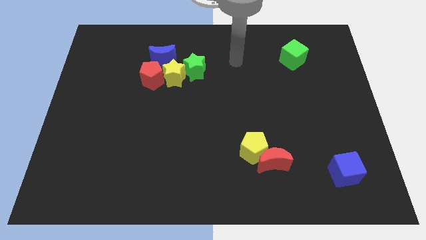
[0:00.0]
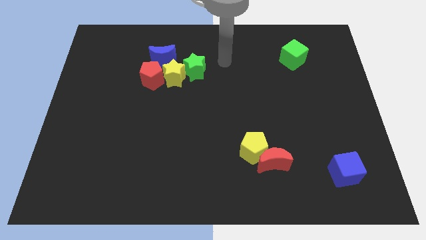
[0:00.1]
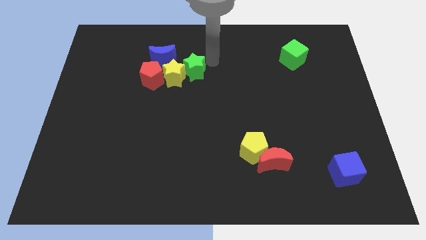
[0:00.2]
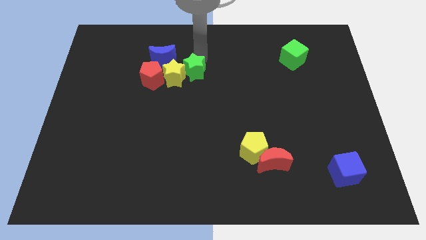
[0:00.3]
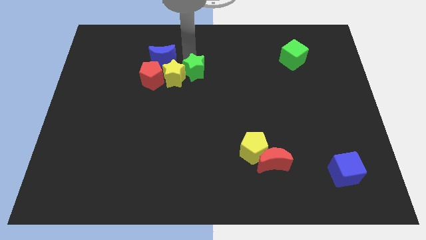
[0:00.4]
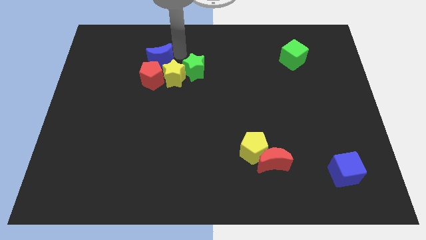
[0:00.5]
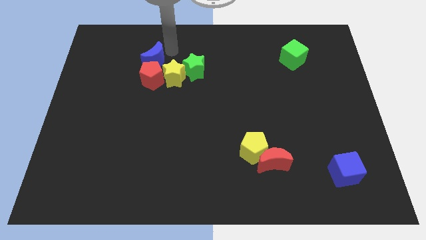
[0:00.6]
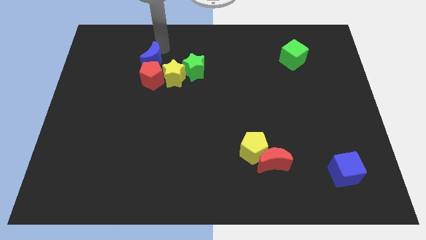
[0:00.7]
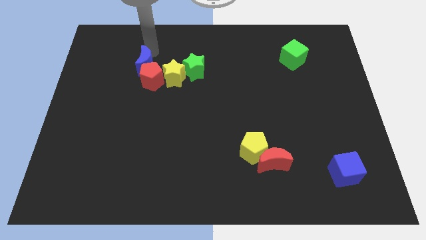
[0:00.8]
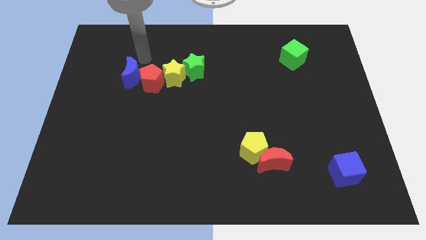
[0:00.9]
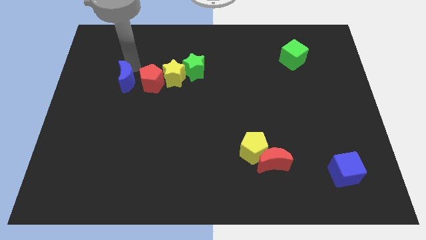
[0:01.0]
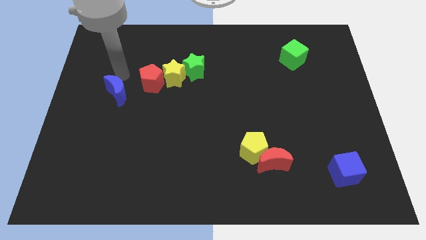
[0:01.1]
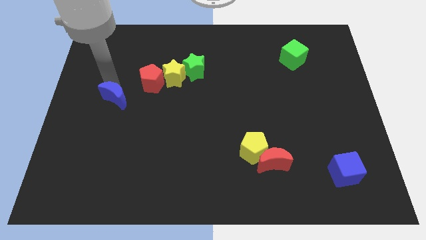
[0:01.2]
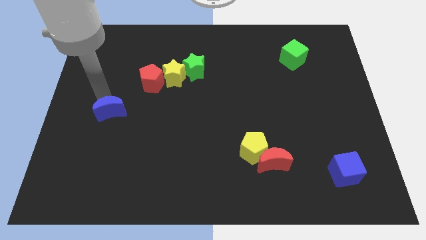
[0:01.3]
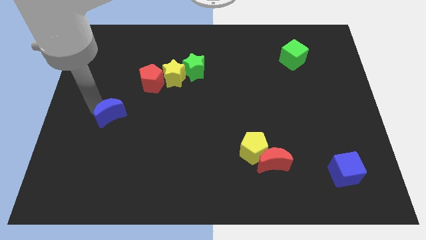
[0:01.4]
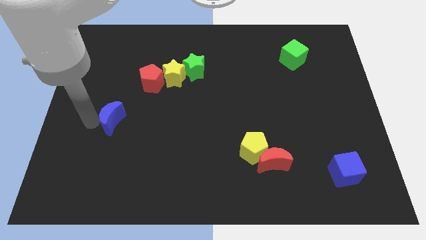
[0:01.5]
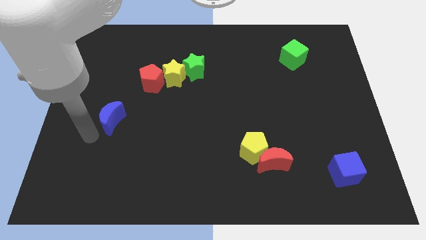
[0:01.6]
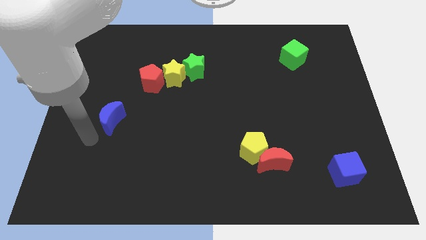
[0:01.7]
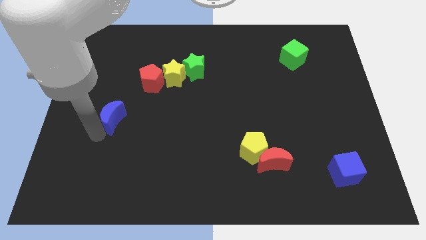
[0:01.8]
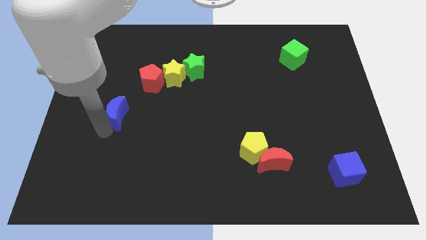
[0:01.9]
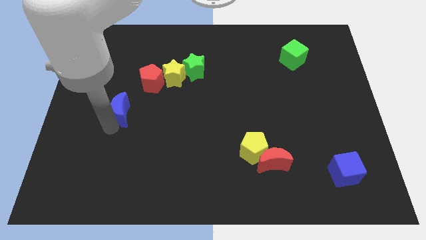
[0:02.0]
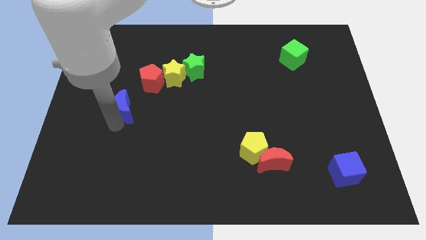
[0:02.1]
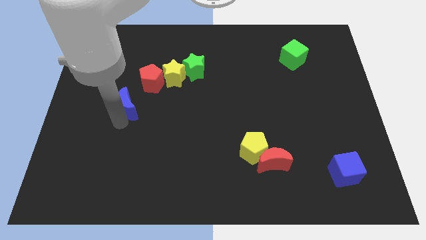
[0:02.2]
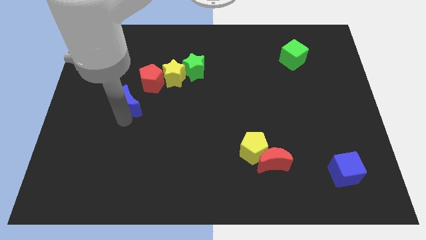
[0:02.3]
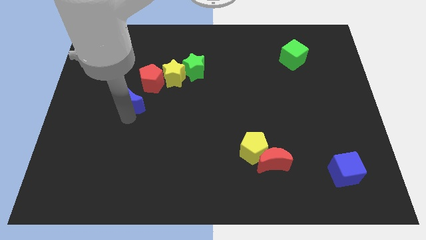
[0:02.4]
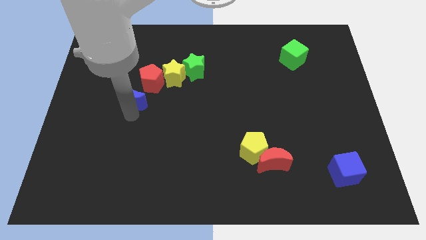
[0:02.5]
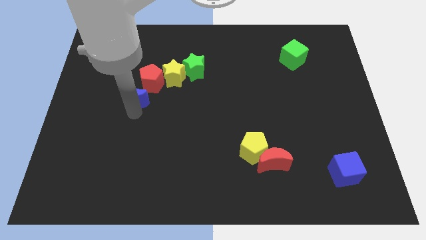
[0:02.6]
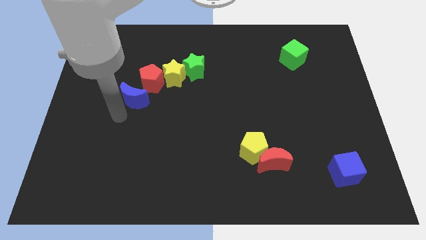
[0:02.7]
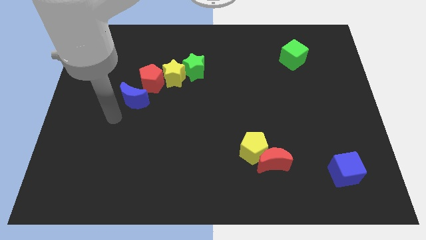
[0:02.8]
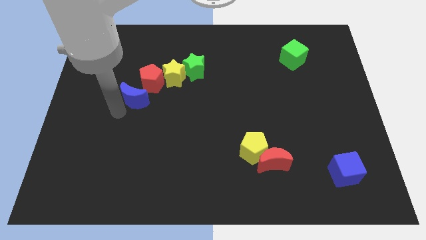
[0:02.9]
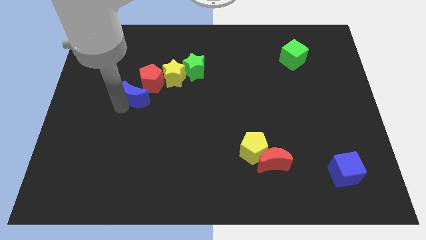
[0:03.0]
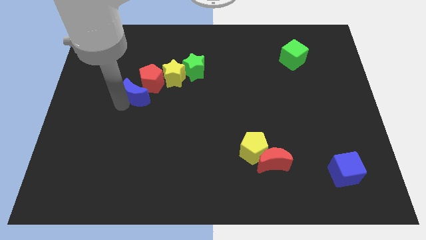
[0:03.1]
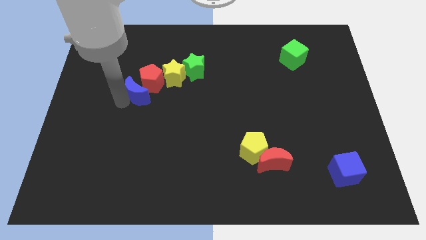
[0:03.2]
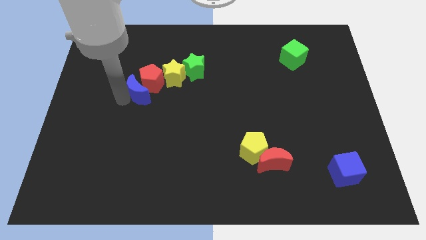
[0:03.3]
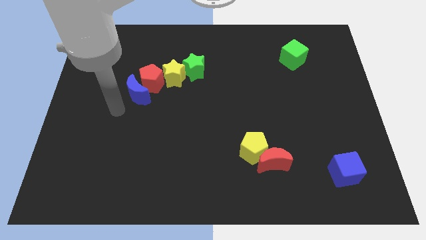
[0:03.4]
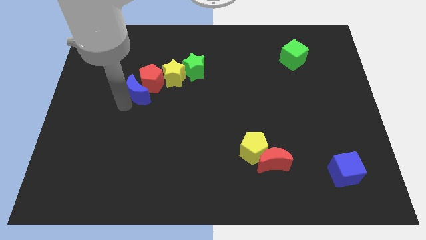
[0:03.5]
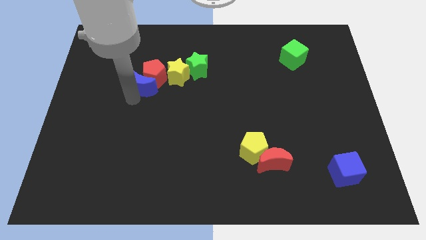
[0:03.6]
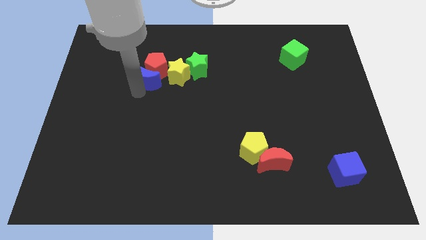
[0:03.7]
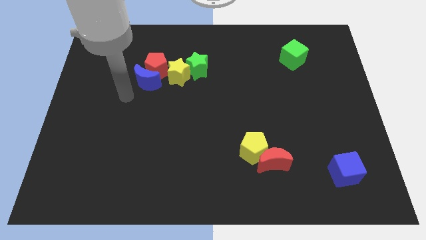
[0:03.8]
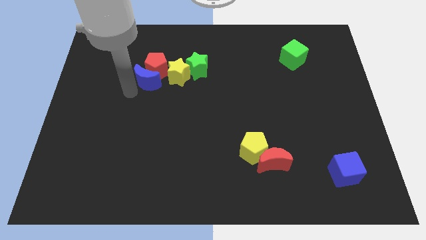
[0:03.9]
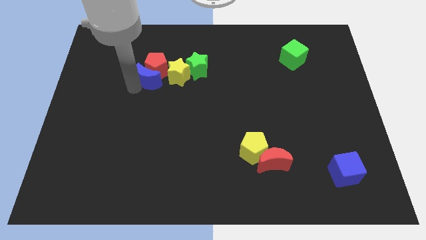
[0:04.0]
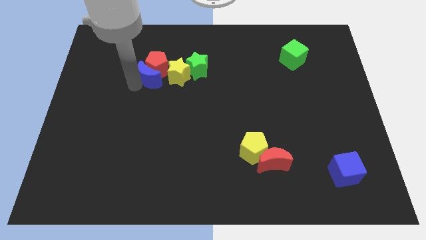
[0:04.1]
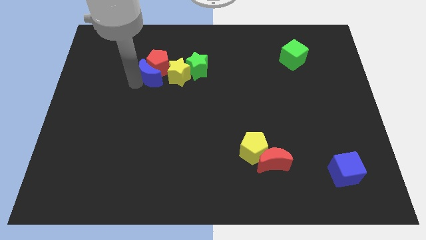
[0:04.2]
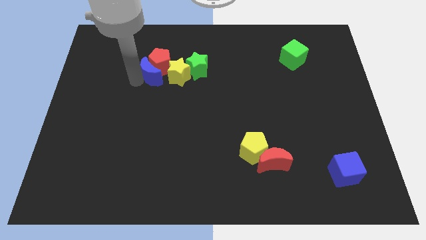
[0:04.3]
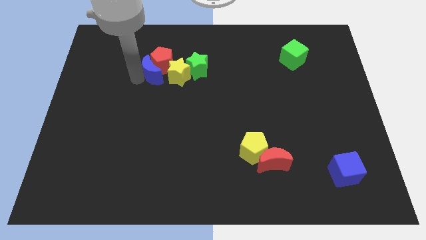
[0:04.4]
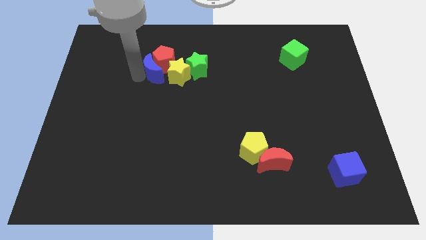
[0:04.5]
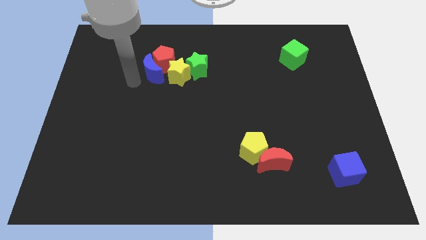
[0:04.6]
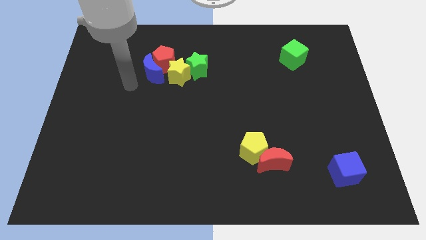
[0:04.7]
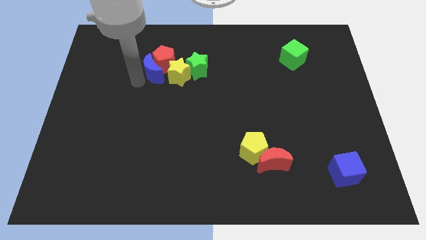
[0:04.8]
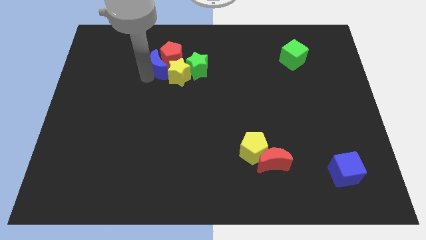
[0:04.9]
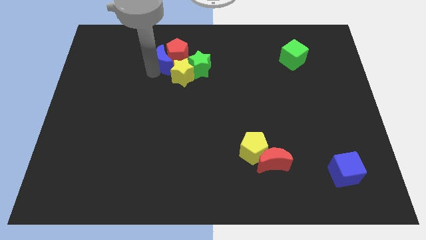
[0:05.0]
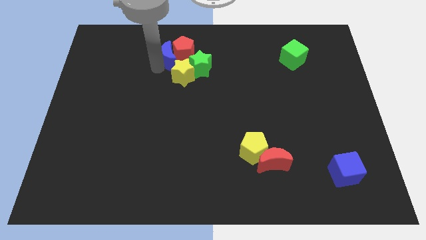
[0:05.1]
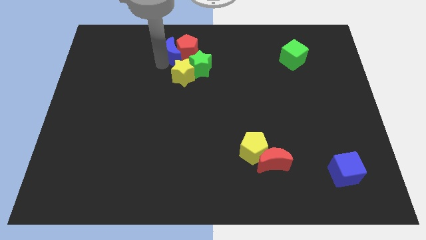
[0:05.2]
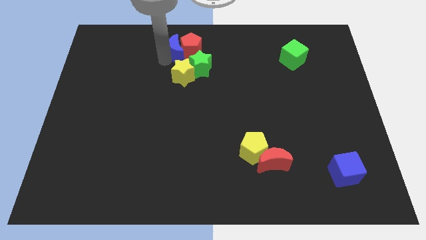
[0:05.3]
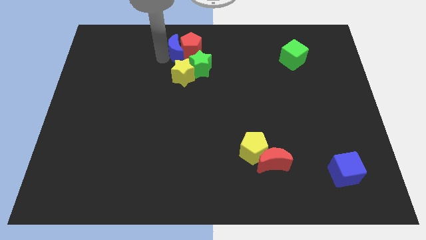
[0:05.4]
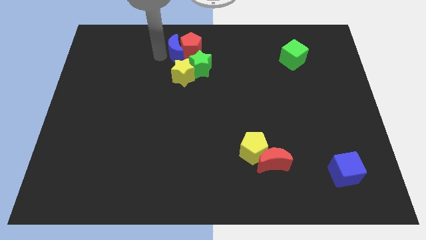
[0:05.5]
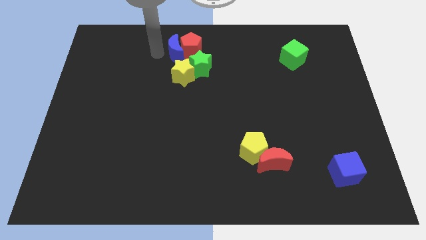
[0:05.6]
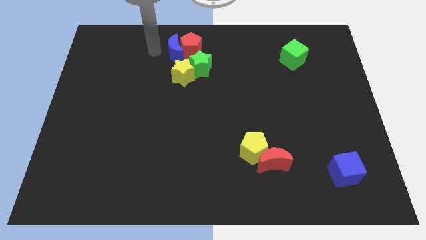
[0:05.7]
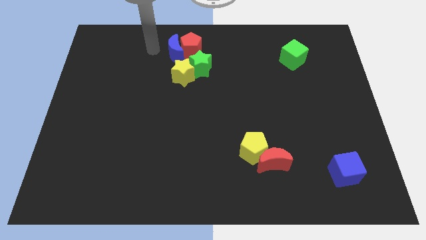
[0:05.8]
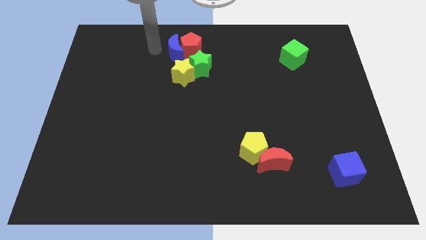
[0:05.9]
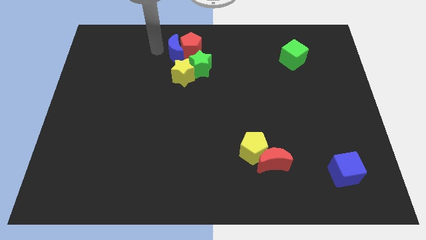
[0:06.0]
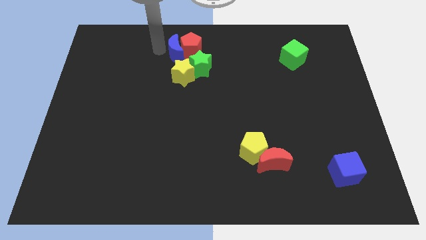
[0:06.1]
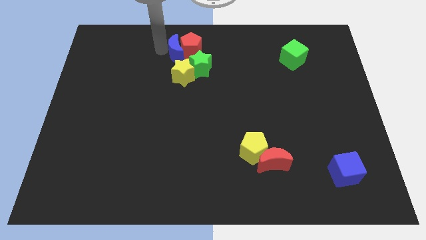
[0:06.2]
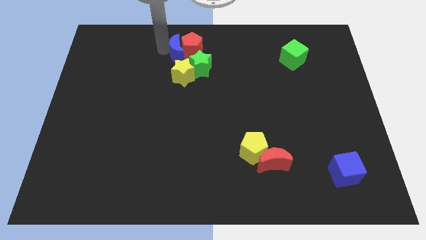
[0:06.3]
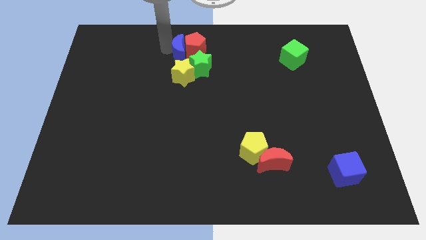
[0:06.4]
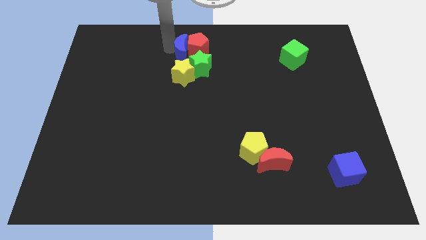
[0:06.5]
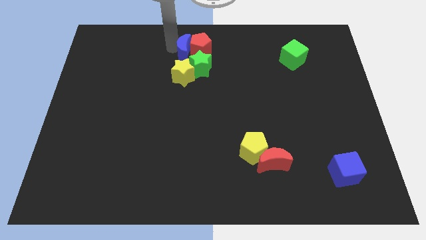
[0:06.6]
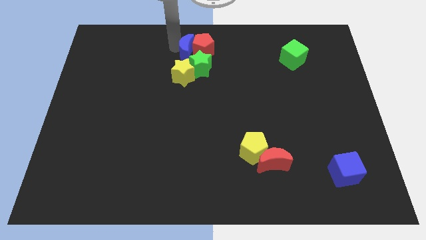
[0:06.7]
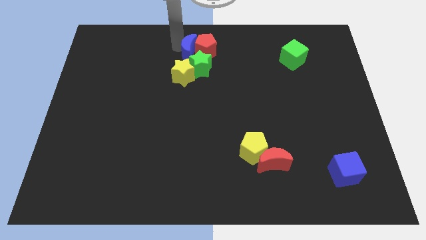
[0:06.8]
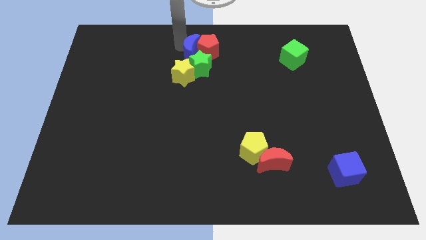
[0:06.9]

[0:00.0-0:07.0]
move the blue moon a little bit to the right

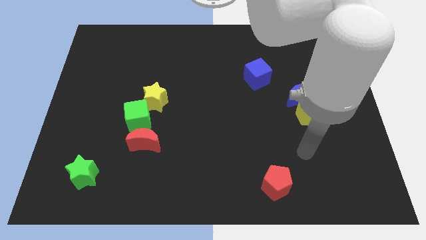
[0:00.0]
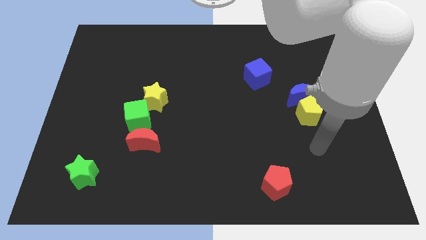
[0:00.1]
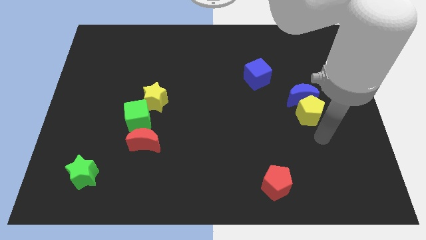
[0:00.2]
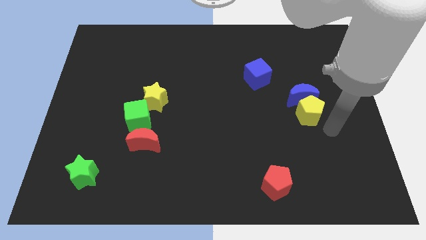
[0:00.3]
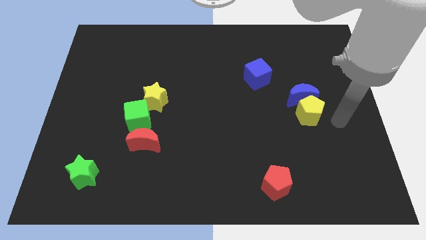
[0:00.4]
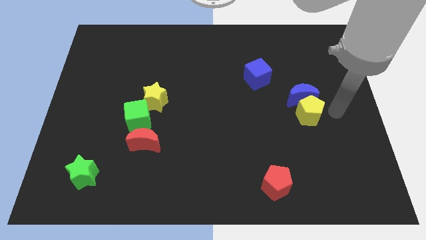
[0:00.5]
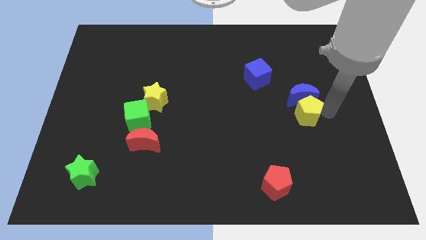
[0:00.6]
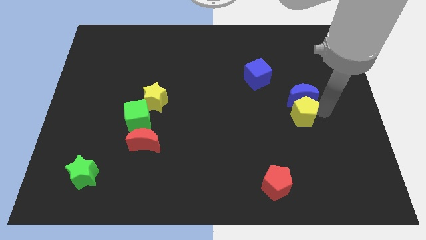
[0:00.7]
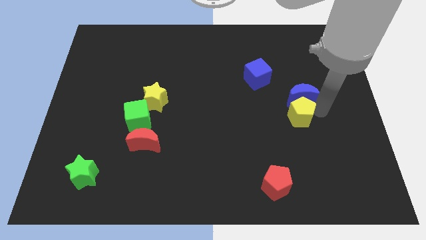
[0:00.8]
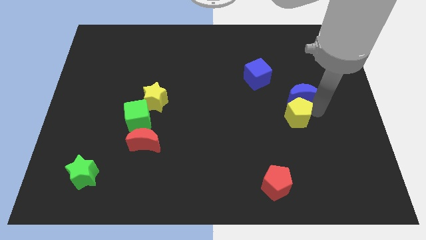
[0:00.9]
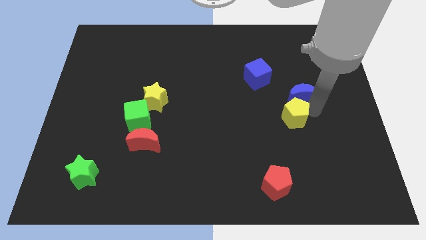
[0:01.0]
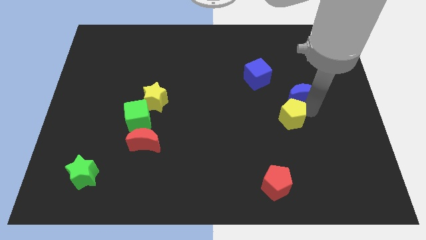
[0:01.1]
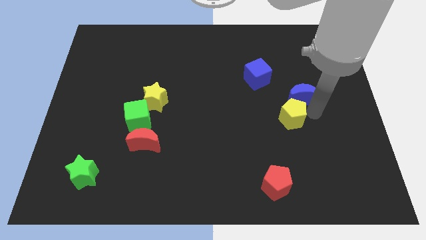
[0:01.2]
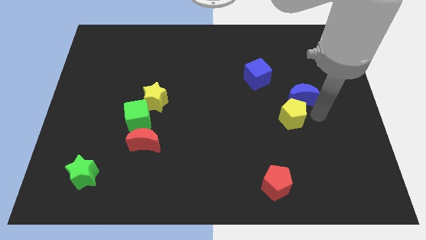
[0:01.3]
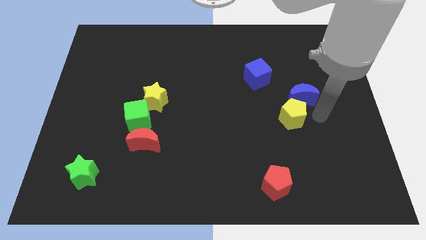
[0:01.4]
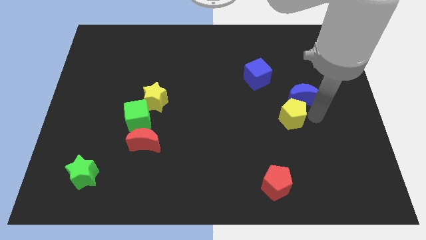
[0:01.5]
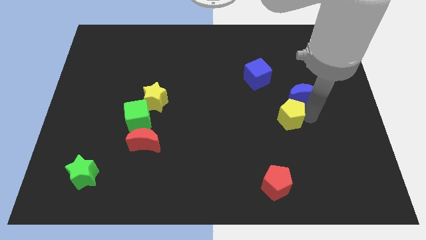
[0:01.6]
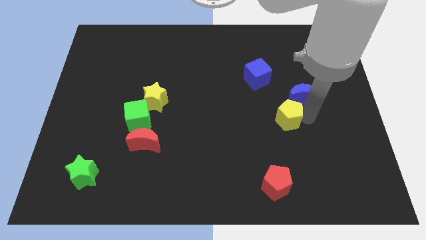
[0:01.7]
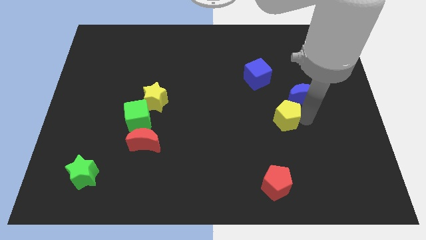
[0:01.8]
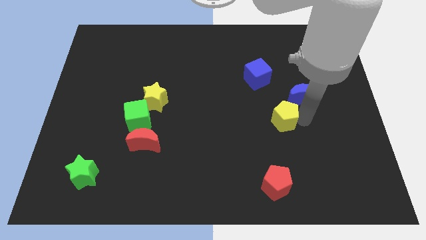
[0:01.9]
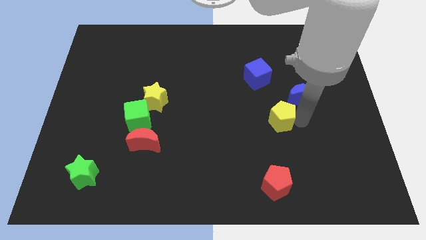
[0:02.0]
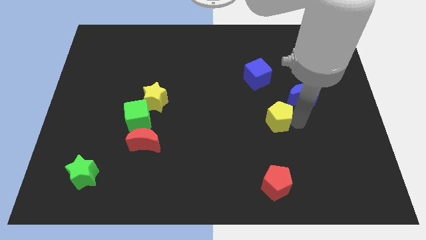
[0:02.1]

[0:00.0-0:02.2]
push the yellow pentagon a little bit left
